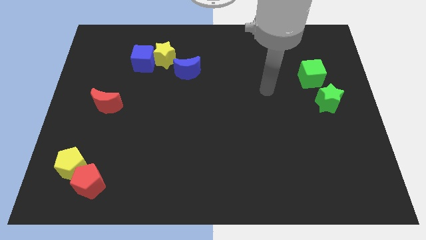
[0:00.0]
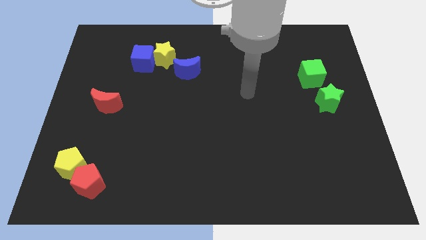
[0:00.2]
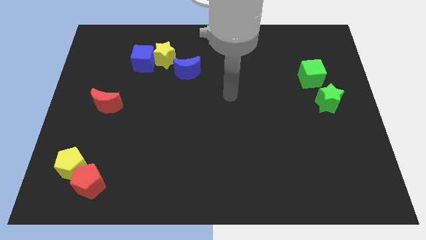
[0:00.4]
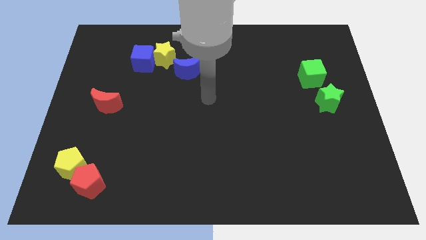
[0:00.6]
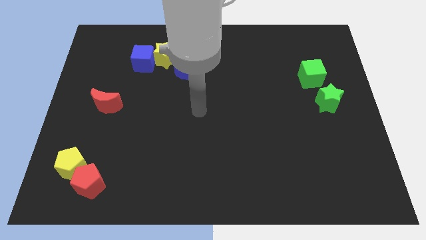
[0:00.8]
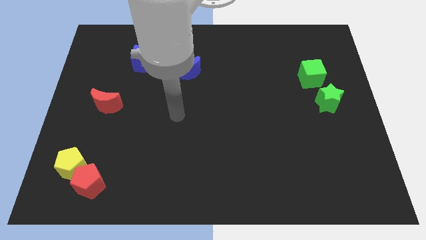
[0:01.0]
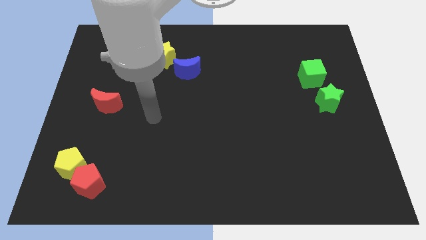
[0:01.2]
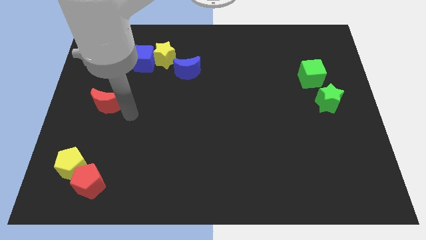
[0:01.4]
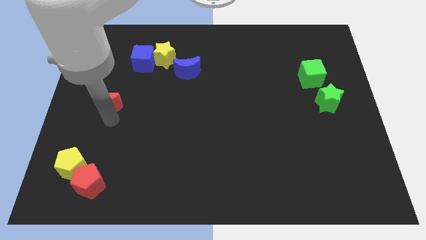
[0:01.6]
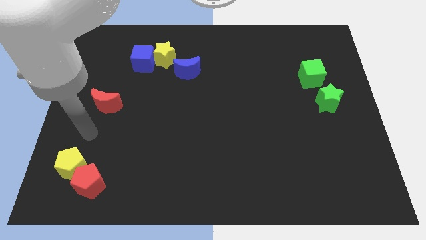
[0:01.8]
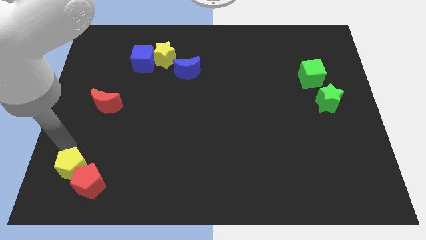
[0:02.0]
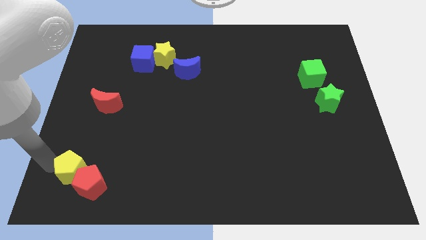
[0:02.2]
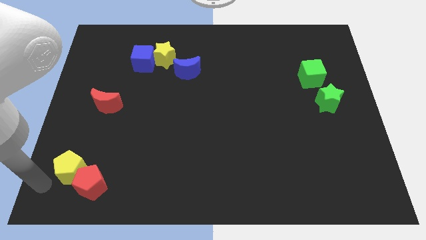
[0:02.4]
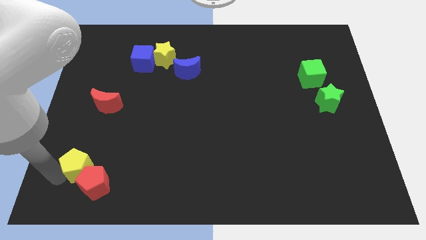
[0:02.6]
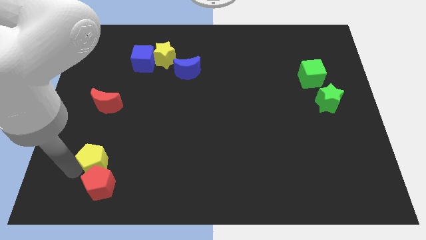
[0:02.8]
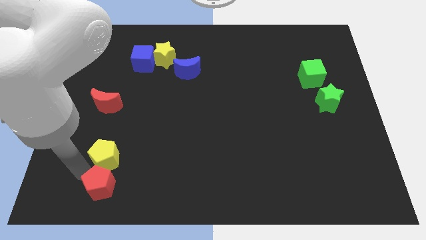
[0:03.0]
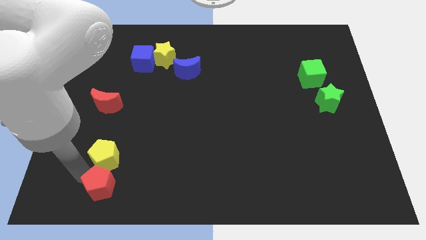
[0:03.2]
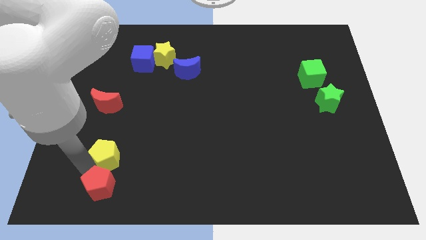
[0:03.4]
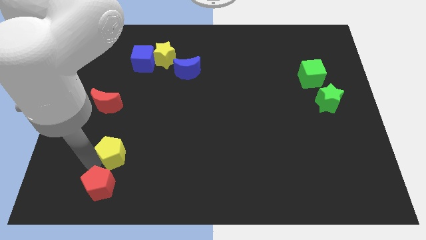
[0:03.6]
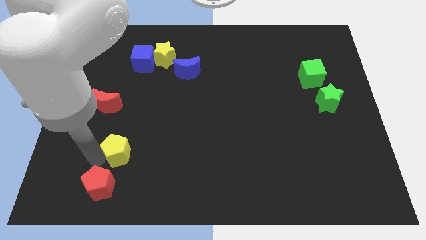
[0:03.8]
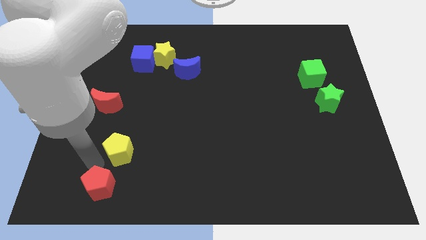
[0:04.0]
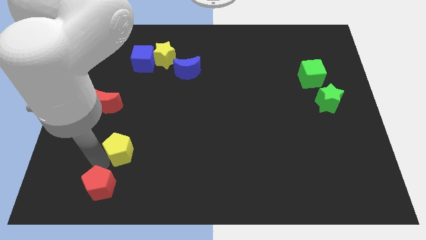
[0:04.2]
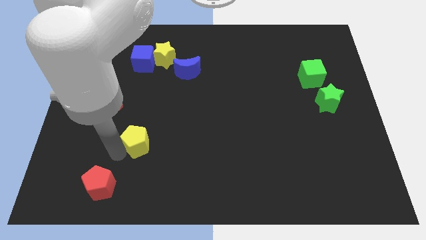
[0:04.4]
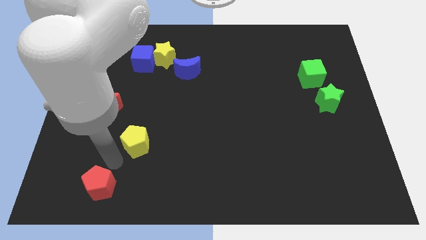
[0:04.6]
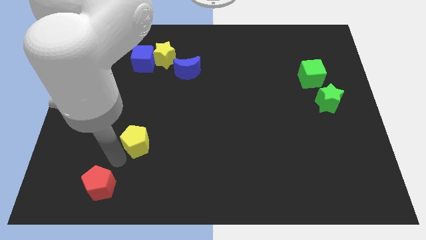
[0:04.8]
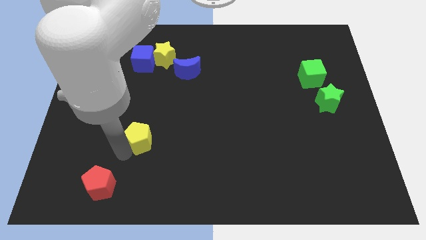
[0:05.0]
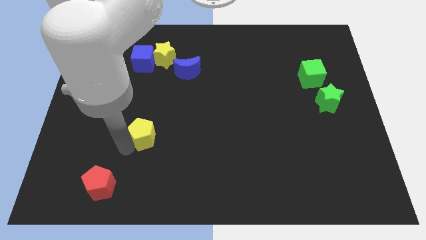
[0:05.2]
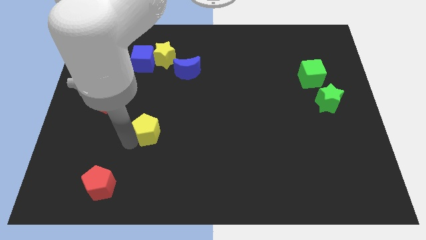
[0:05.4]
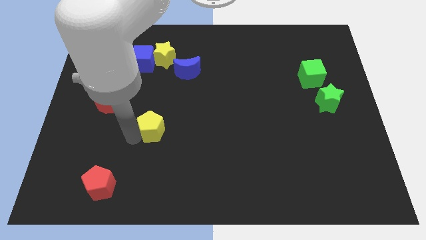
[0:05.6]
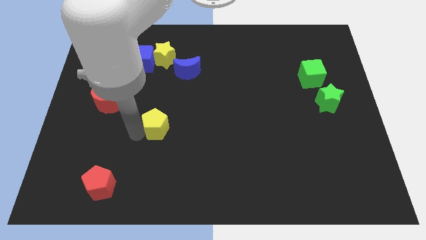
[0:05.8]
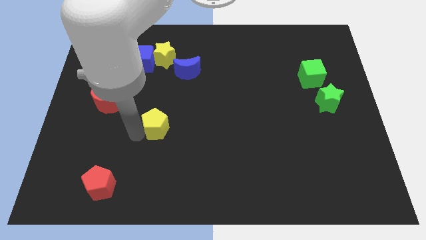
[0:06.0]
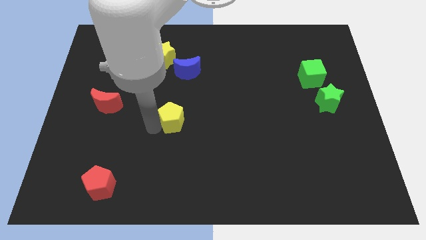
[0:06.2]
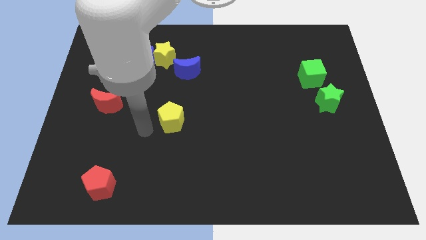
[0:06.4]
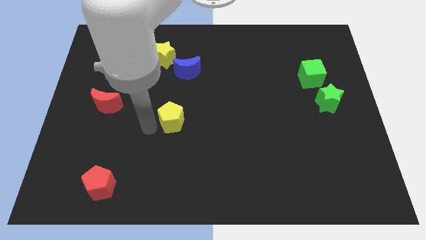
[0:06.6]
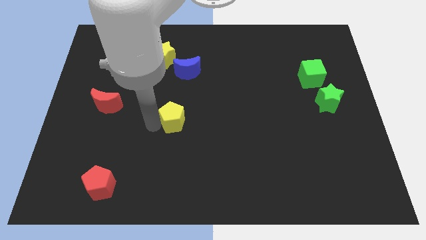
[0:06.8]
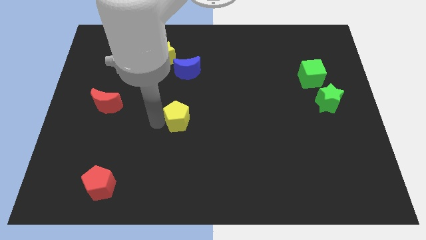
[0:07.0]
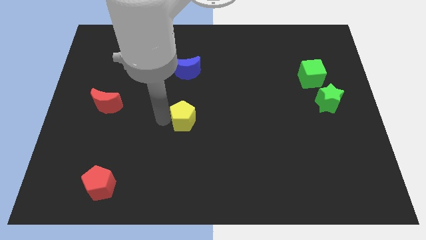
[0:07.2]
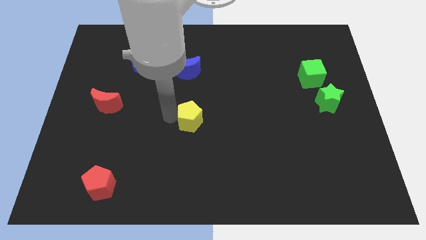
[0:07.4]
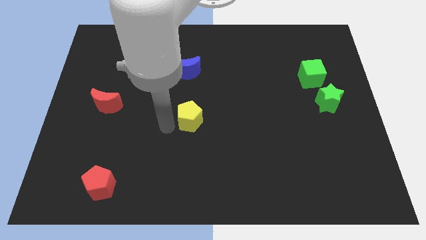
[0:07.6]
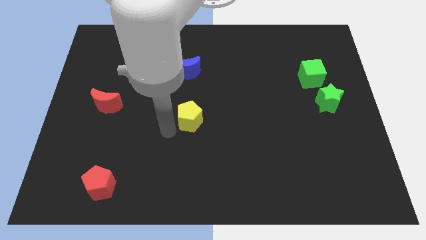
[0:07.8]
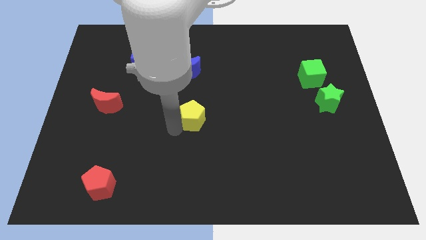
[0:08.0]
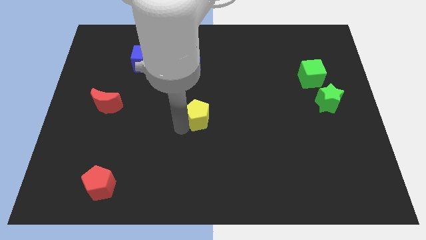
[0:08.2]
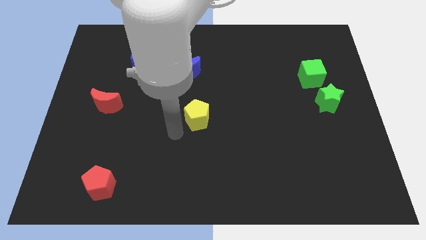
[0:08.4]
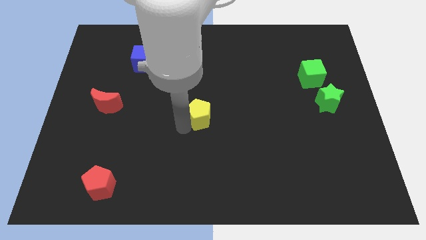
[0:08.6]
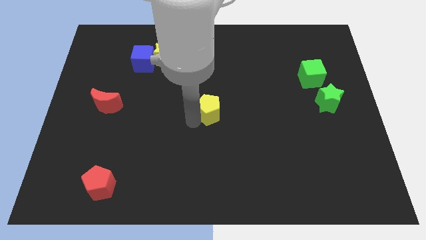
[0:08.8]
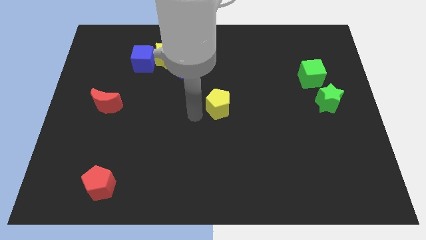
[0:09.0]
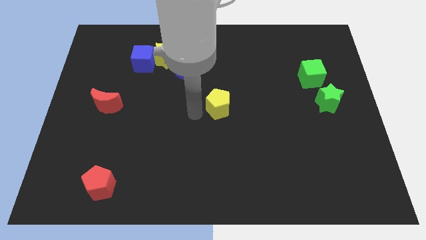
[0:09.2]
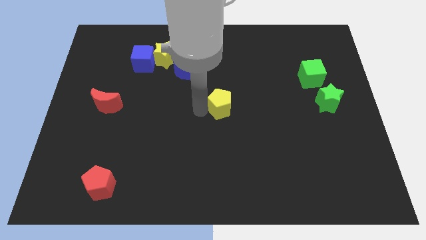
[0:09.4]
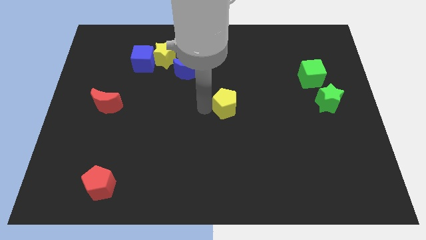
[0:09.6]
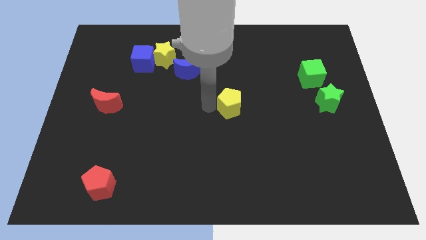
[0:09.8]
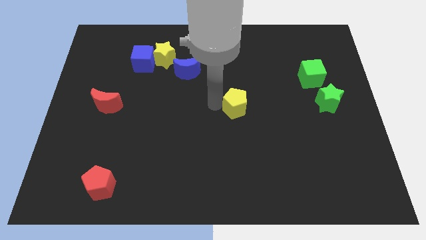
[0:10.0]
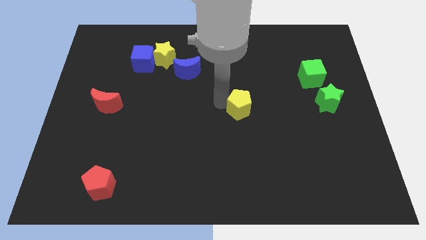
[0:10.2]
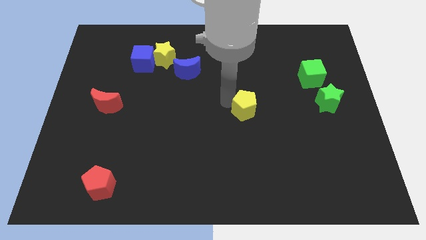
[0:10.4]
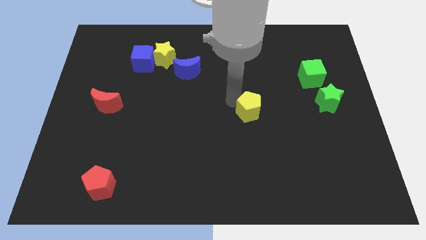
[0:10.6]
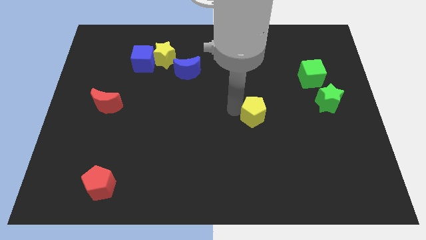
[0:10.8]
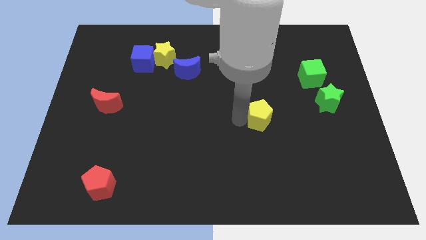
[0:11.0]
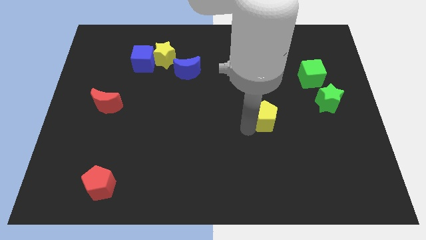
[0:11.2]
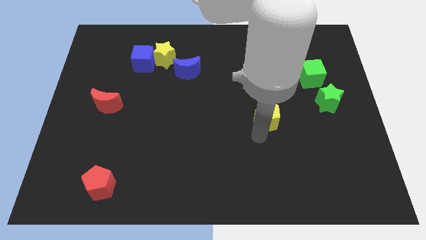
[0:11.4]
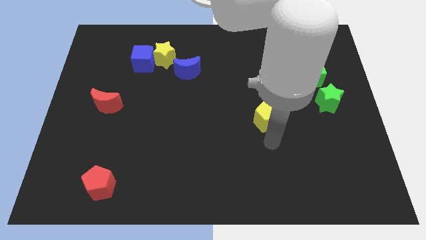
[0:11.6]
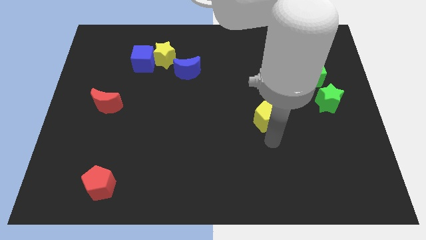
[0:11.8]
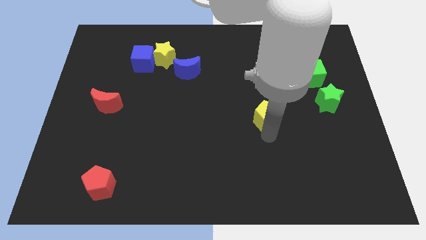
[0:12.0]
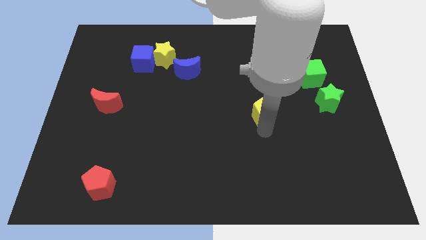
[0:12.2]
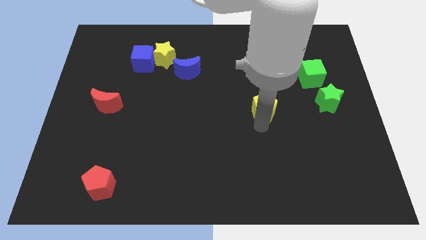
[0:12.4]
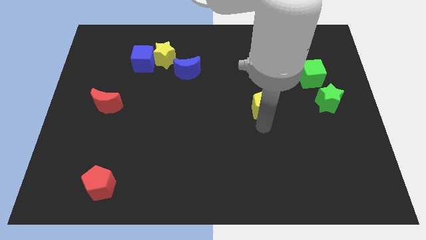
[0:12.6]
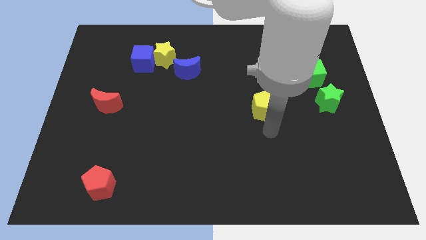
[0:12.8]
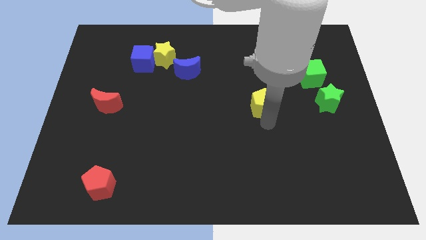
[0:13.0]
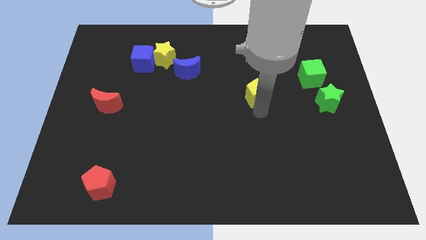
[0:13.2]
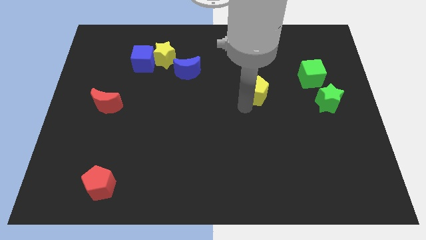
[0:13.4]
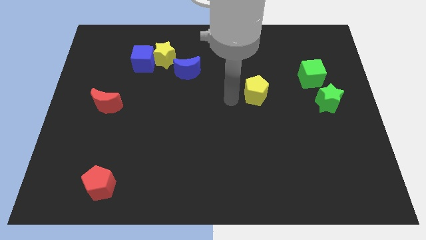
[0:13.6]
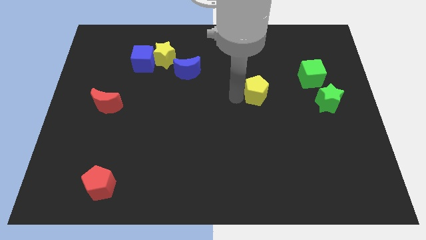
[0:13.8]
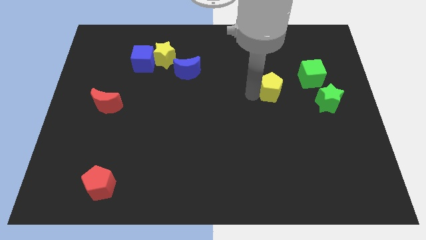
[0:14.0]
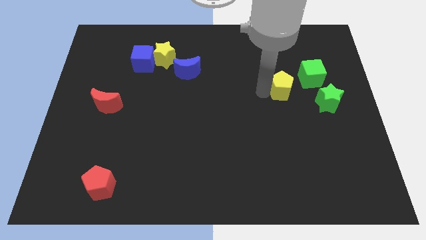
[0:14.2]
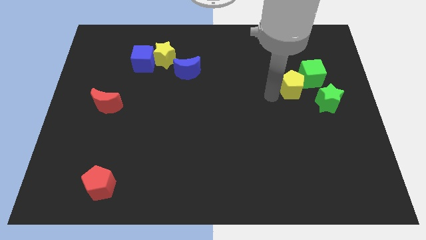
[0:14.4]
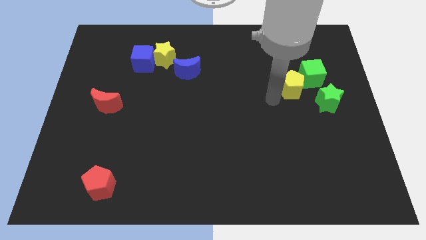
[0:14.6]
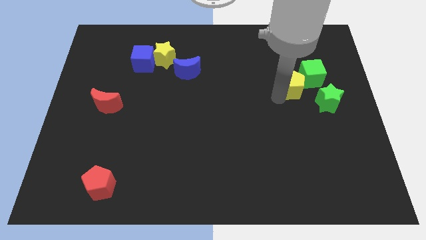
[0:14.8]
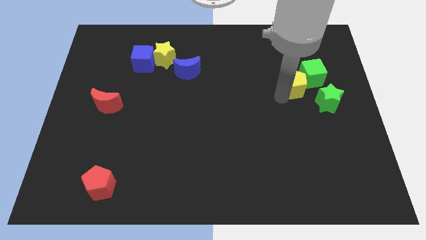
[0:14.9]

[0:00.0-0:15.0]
put the yellow pentagon towards the green cube
